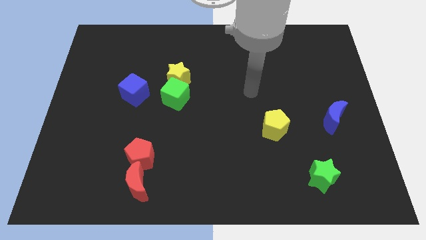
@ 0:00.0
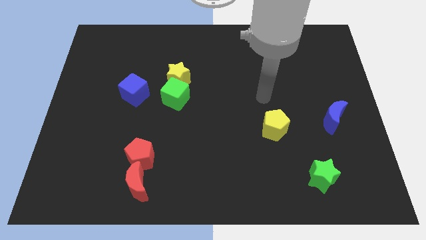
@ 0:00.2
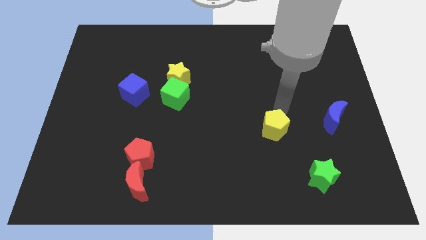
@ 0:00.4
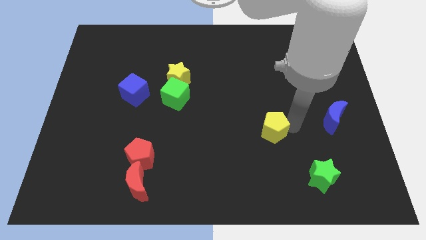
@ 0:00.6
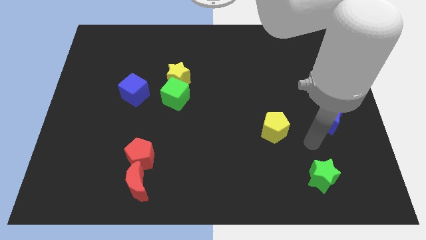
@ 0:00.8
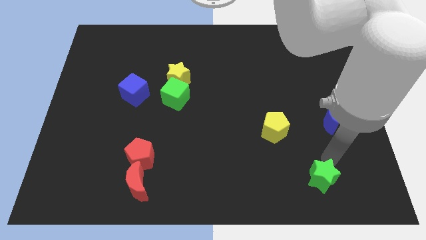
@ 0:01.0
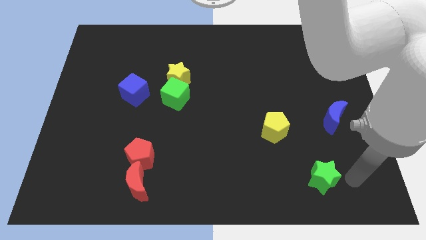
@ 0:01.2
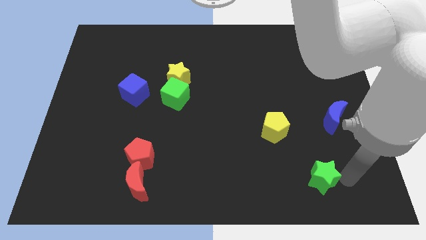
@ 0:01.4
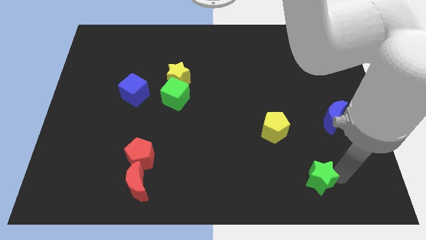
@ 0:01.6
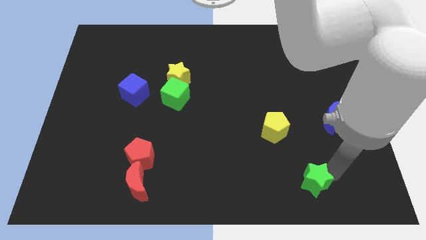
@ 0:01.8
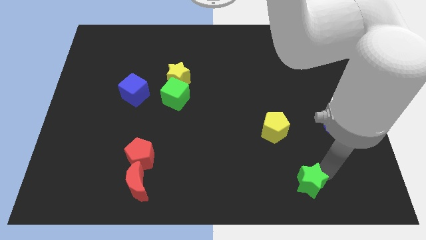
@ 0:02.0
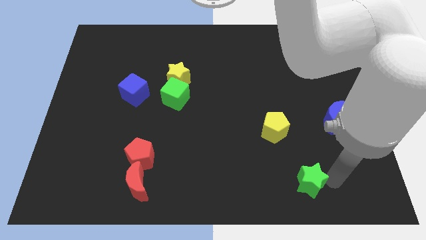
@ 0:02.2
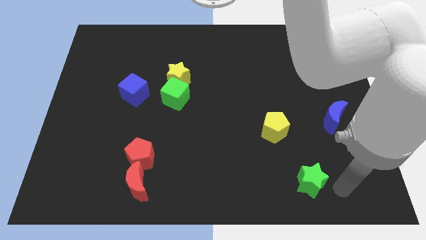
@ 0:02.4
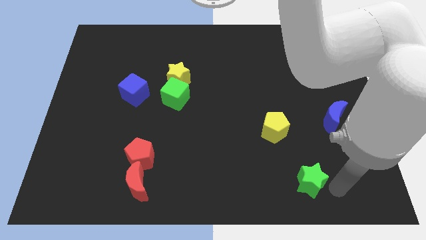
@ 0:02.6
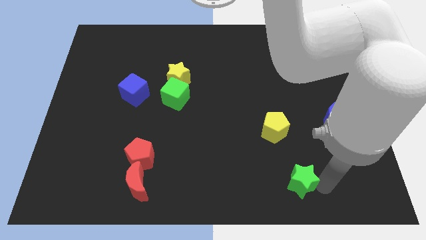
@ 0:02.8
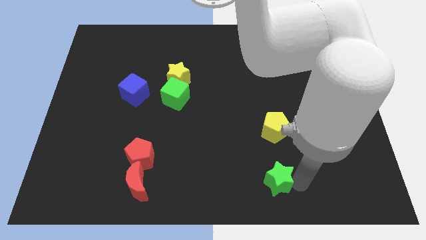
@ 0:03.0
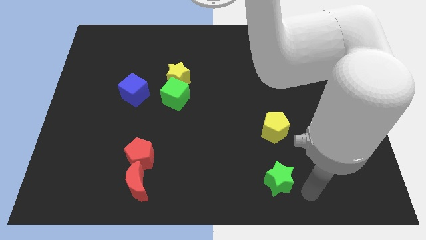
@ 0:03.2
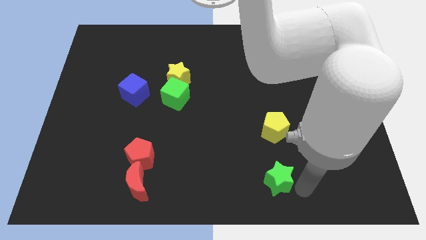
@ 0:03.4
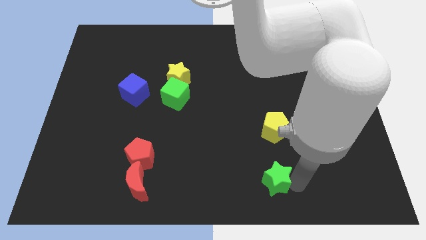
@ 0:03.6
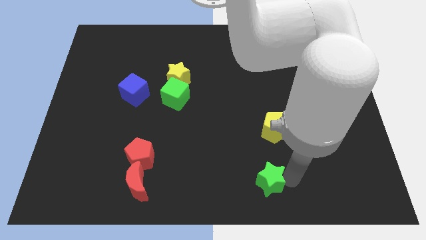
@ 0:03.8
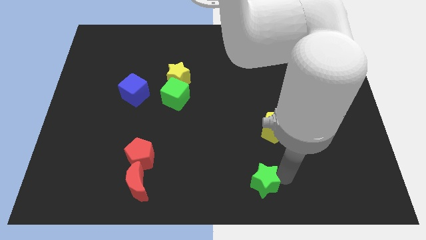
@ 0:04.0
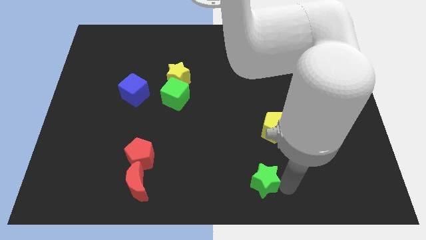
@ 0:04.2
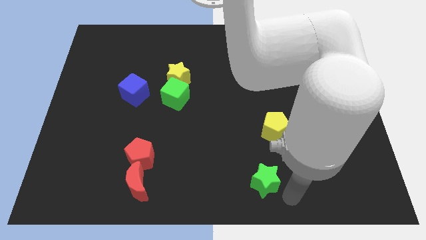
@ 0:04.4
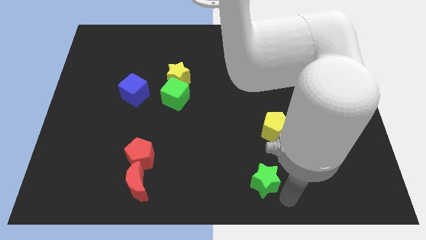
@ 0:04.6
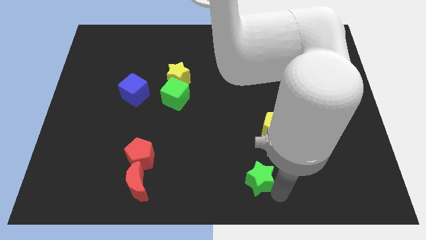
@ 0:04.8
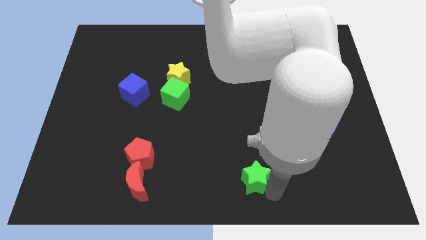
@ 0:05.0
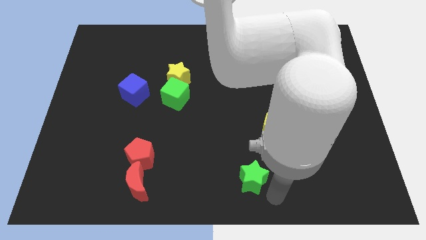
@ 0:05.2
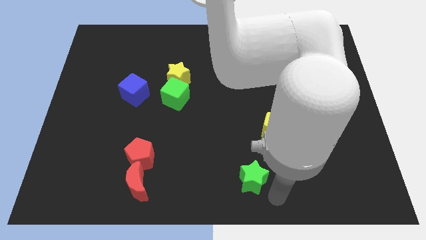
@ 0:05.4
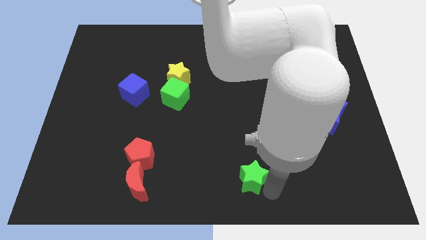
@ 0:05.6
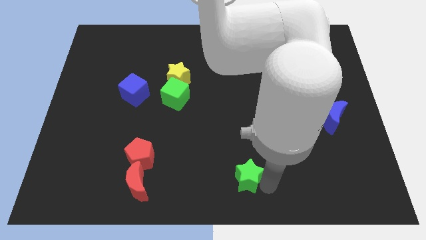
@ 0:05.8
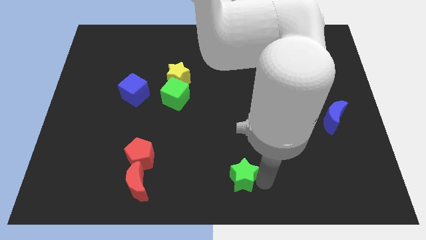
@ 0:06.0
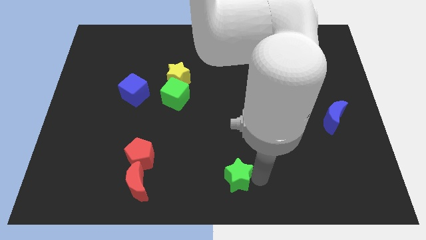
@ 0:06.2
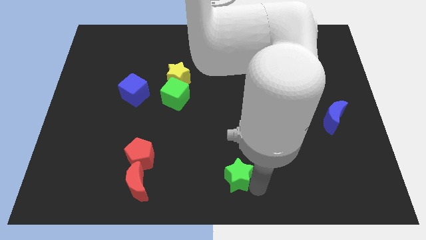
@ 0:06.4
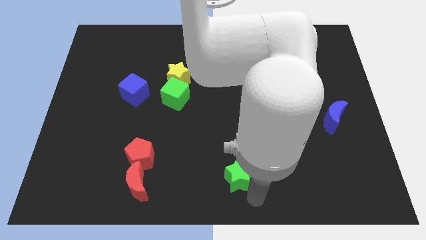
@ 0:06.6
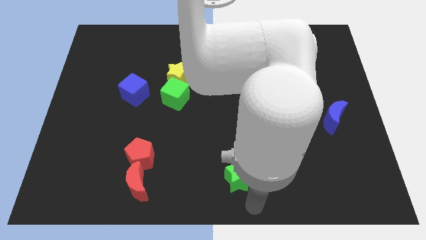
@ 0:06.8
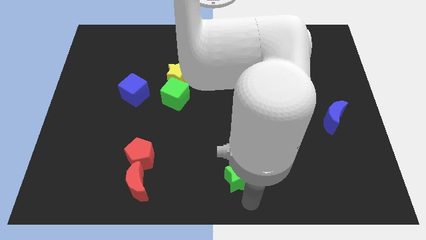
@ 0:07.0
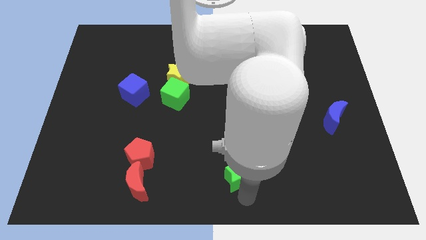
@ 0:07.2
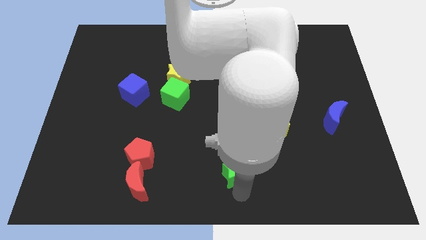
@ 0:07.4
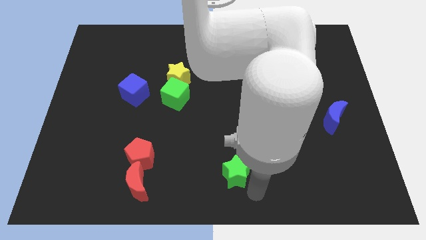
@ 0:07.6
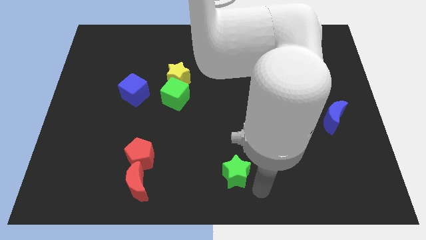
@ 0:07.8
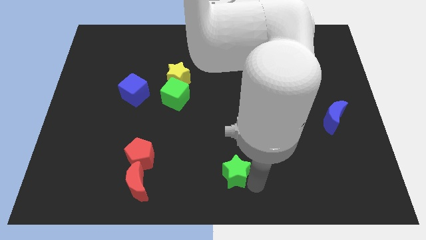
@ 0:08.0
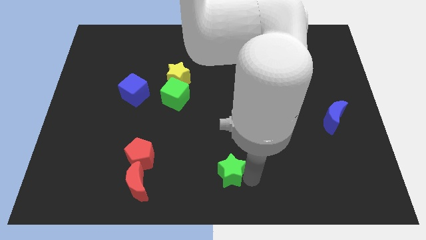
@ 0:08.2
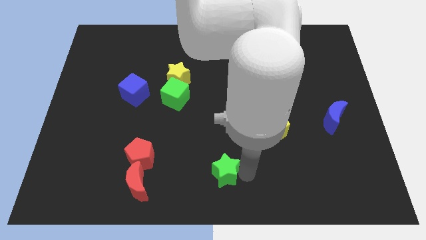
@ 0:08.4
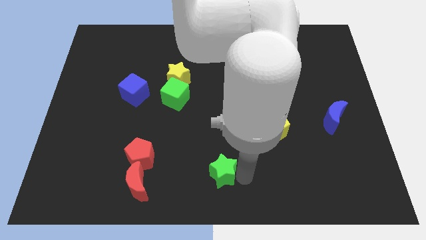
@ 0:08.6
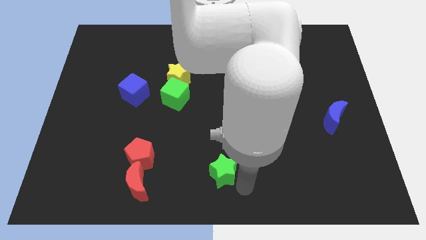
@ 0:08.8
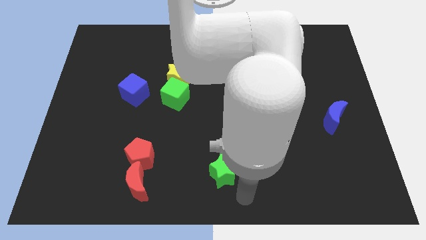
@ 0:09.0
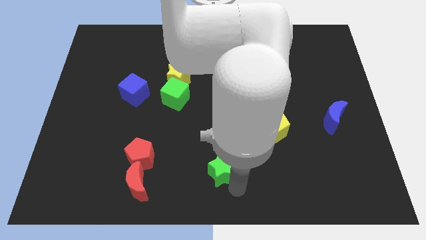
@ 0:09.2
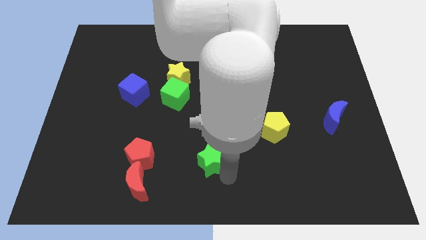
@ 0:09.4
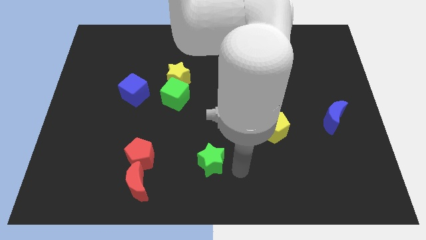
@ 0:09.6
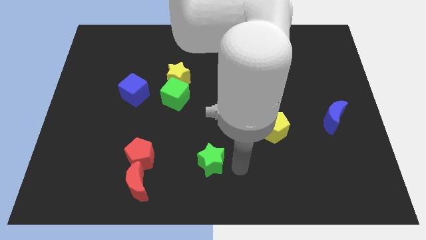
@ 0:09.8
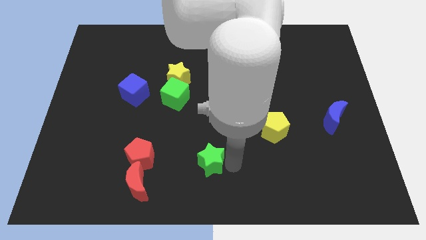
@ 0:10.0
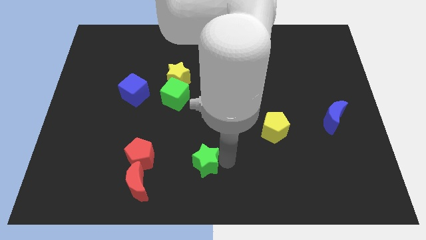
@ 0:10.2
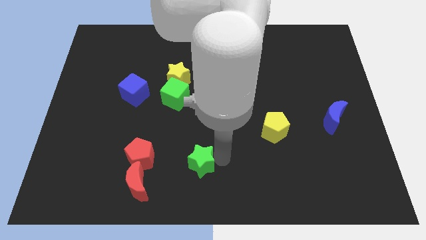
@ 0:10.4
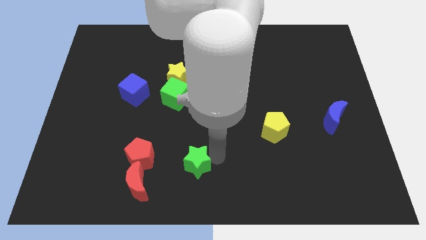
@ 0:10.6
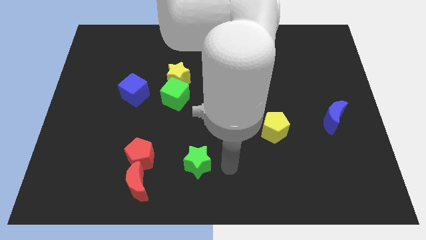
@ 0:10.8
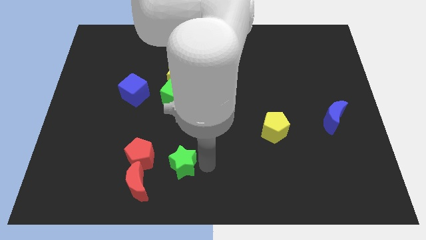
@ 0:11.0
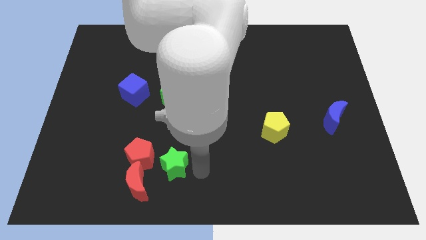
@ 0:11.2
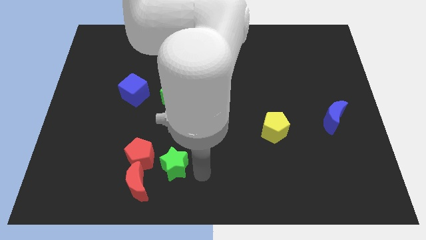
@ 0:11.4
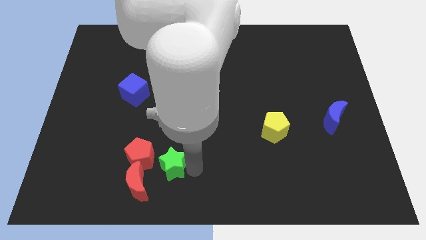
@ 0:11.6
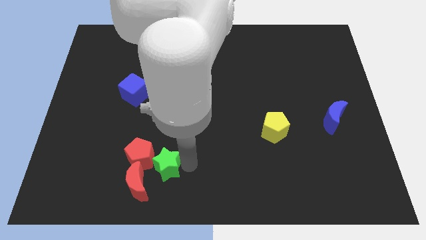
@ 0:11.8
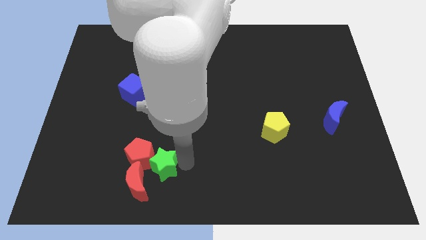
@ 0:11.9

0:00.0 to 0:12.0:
move the green star towards the red pentagon

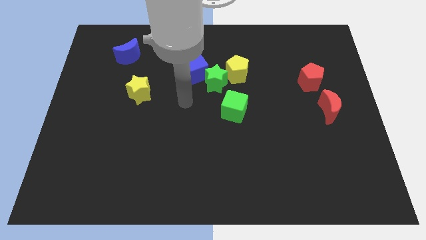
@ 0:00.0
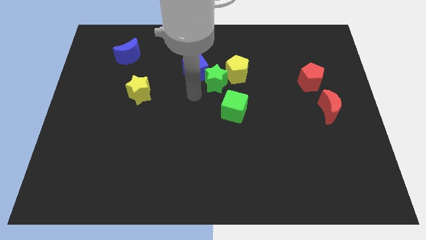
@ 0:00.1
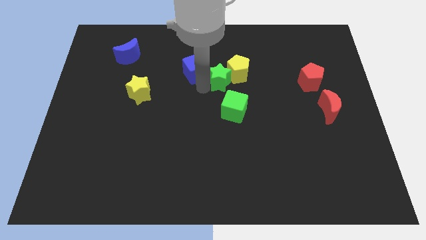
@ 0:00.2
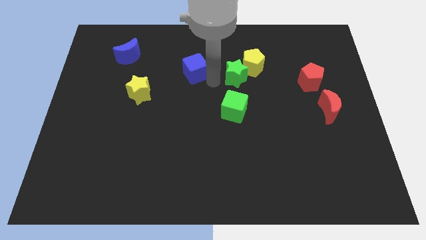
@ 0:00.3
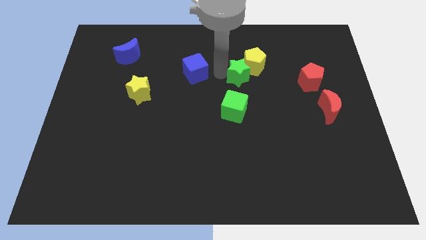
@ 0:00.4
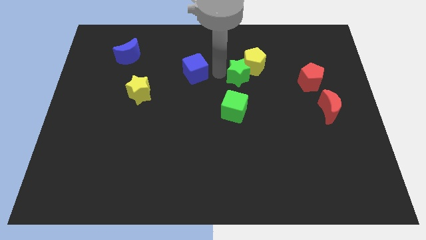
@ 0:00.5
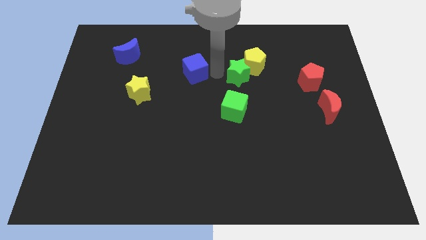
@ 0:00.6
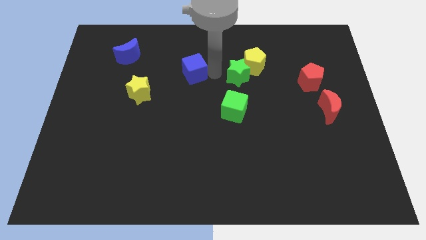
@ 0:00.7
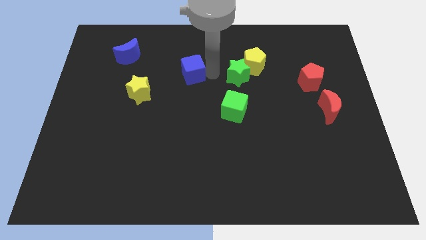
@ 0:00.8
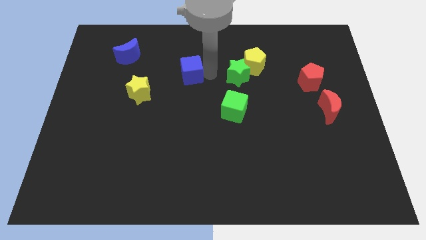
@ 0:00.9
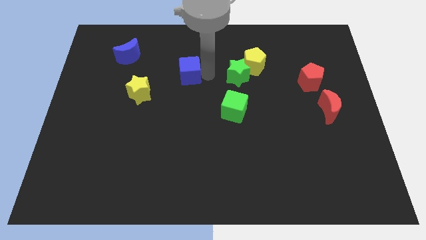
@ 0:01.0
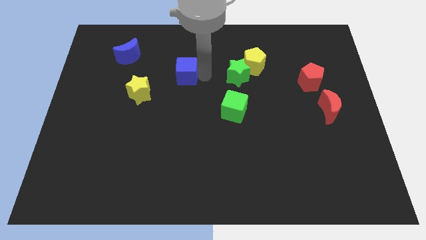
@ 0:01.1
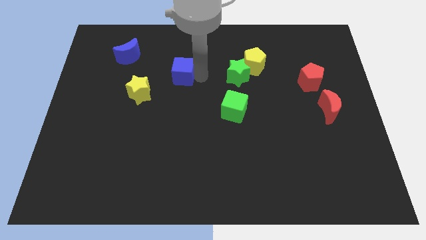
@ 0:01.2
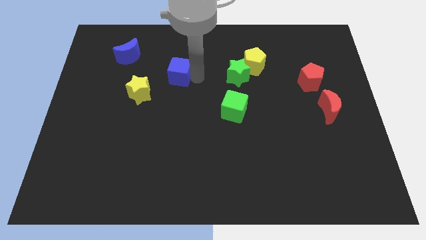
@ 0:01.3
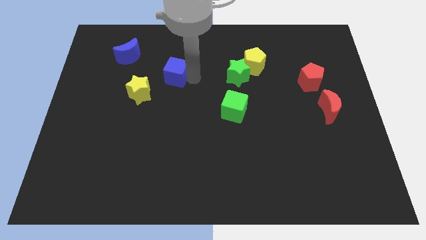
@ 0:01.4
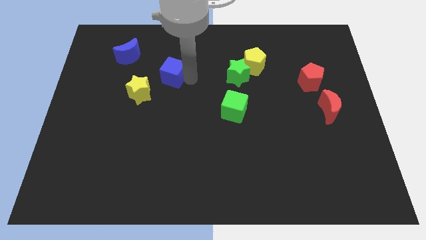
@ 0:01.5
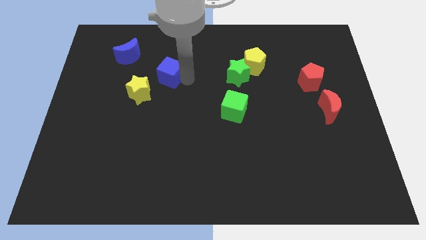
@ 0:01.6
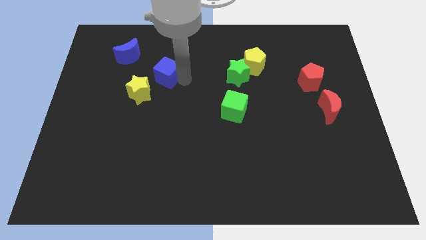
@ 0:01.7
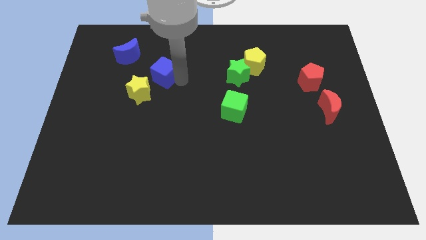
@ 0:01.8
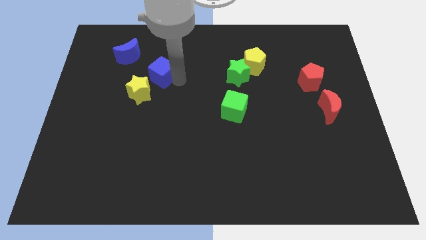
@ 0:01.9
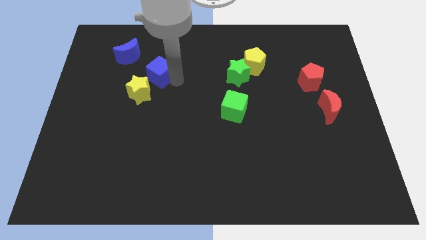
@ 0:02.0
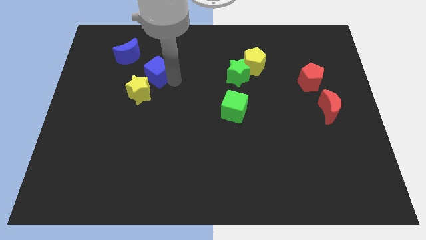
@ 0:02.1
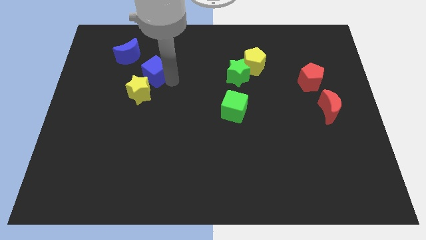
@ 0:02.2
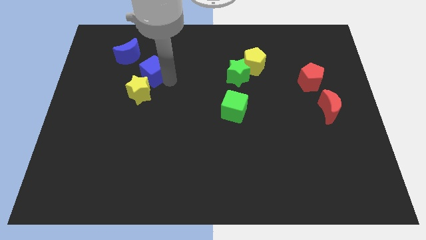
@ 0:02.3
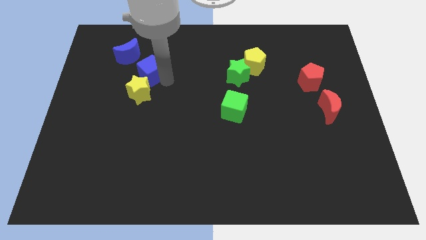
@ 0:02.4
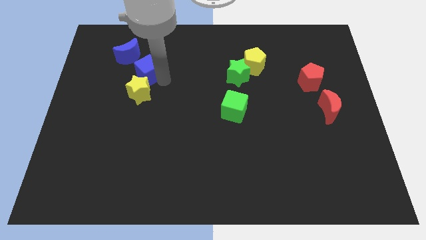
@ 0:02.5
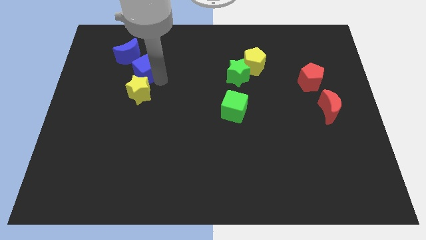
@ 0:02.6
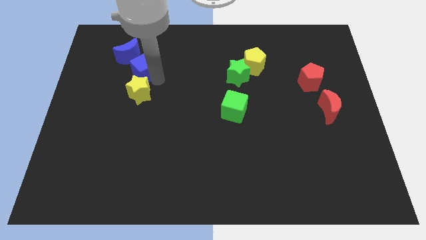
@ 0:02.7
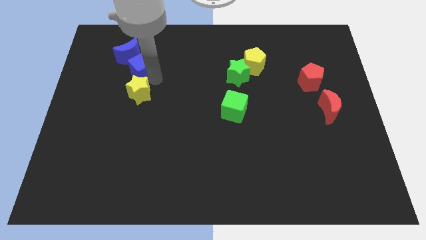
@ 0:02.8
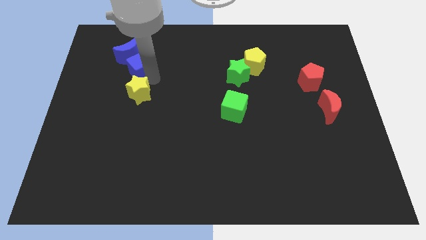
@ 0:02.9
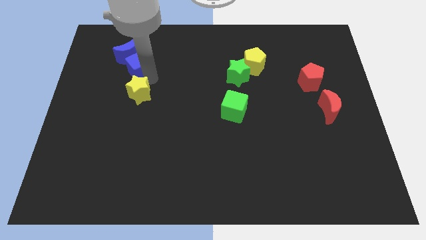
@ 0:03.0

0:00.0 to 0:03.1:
push the blue cube next to the blue moon
